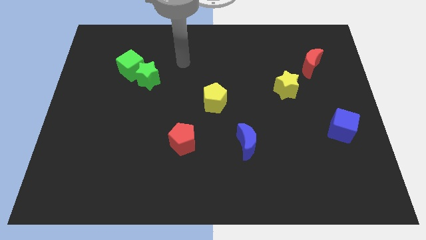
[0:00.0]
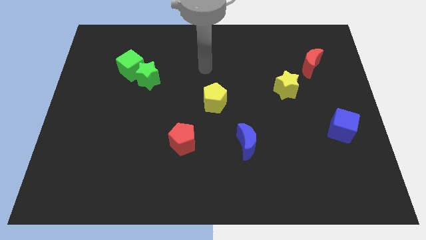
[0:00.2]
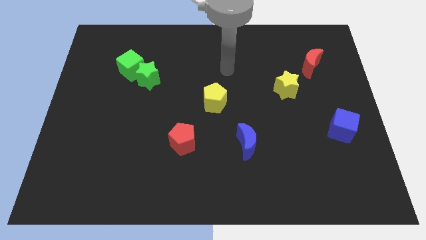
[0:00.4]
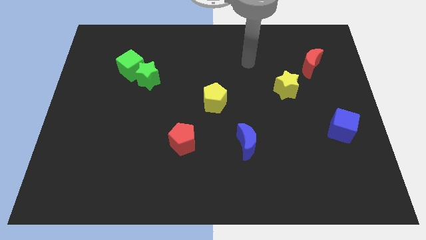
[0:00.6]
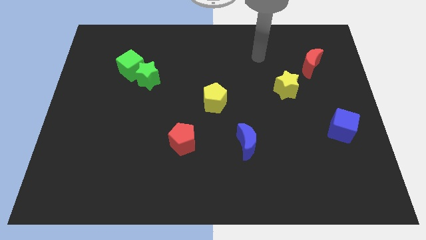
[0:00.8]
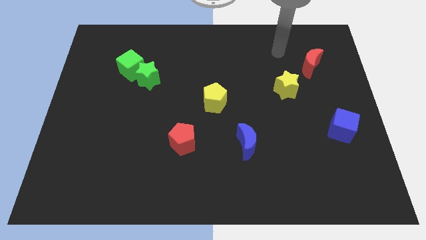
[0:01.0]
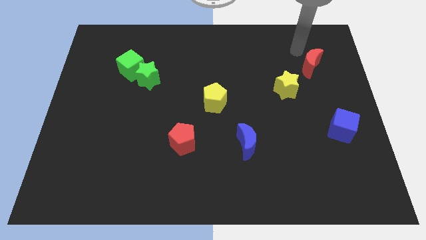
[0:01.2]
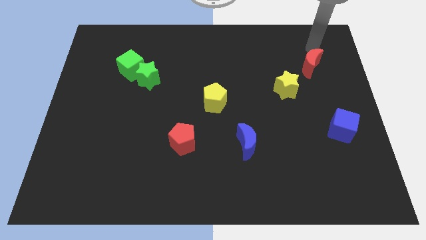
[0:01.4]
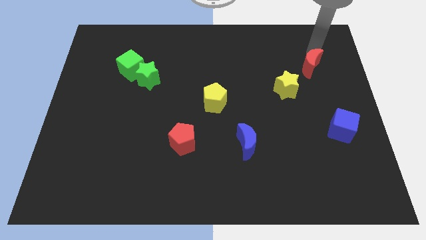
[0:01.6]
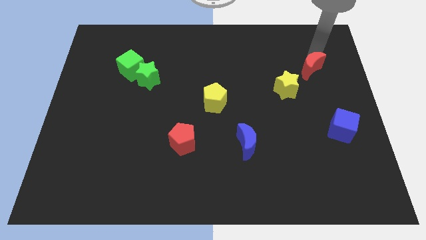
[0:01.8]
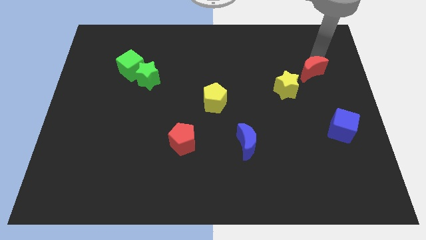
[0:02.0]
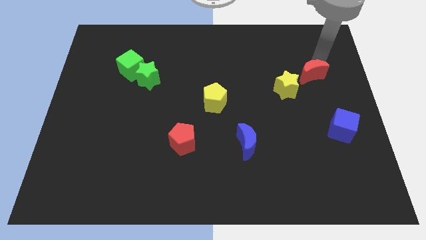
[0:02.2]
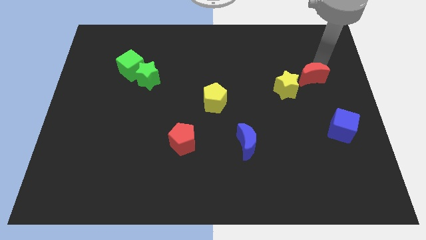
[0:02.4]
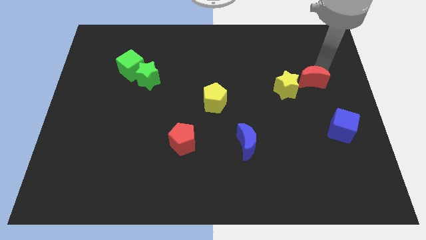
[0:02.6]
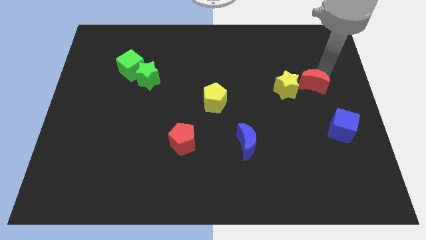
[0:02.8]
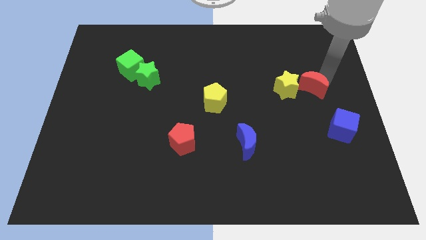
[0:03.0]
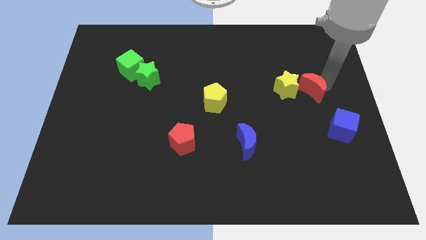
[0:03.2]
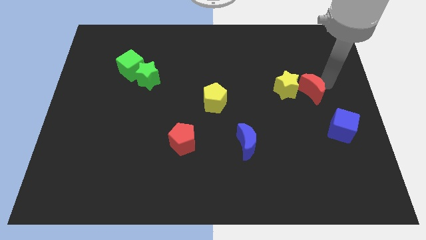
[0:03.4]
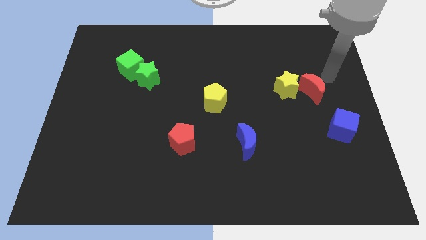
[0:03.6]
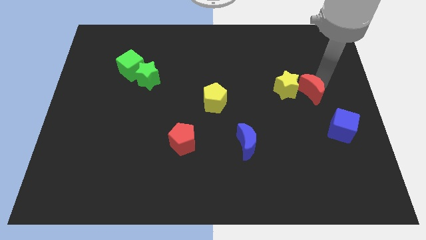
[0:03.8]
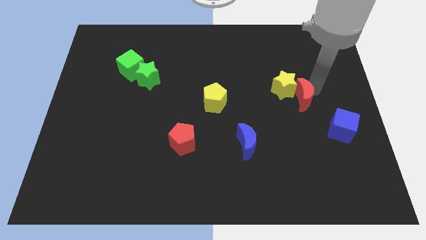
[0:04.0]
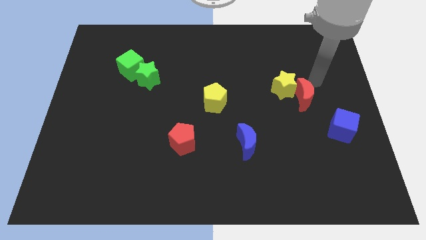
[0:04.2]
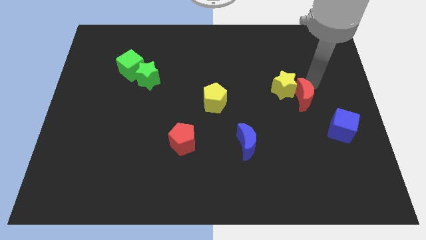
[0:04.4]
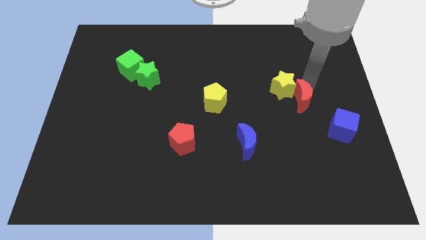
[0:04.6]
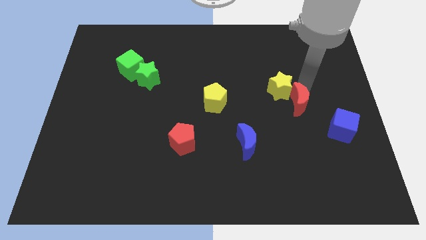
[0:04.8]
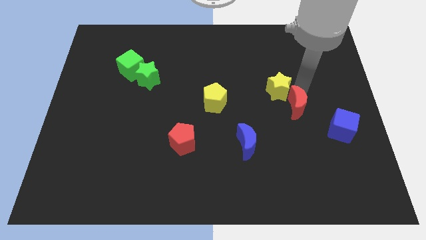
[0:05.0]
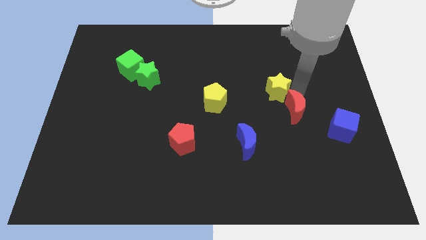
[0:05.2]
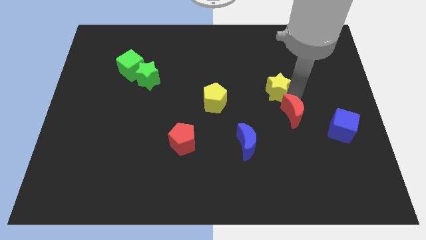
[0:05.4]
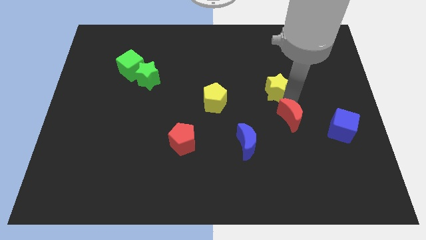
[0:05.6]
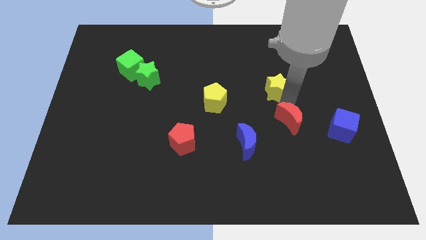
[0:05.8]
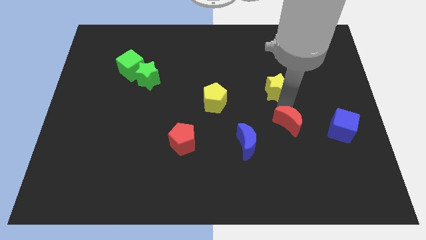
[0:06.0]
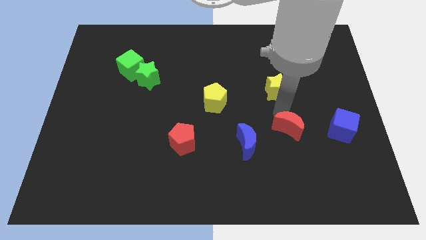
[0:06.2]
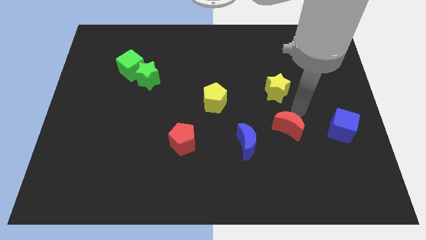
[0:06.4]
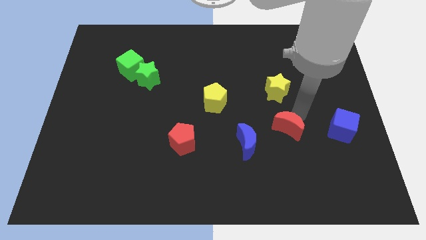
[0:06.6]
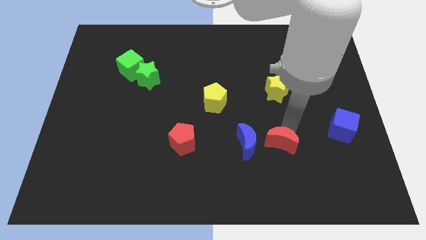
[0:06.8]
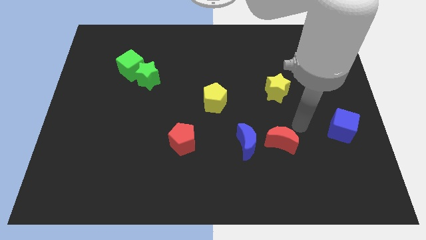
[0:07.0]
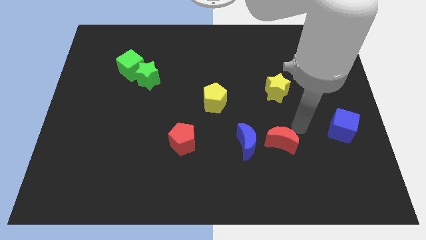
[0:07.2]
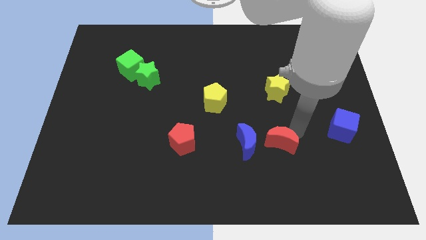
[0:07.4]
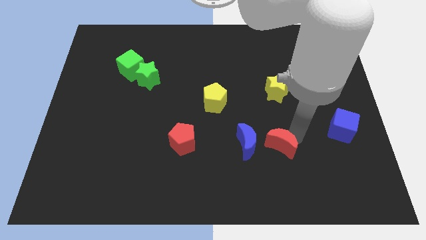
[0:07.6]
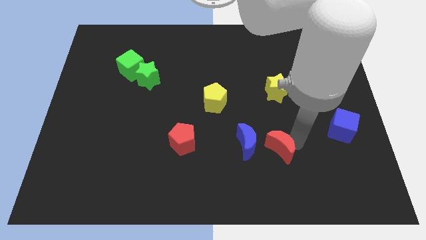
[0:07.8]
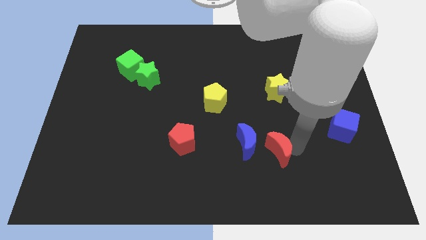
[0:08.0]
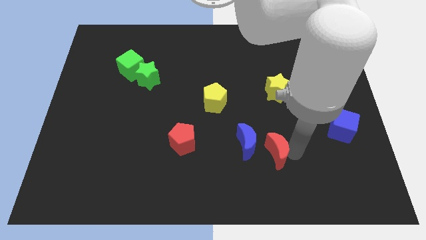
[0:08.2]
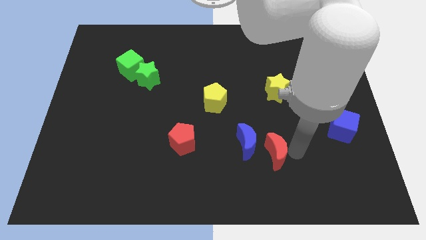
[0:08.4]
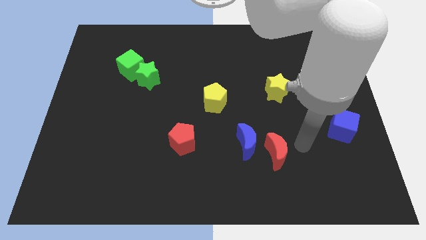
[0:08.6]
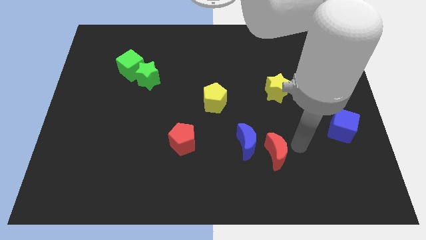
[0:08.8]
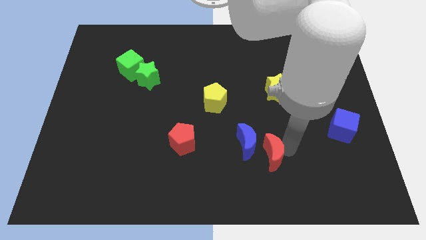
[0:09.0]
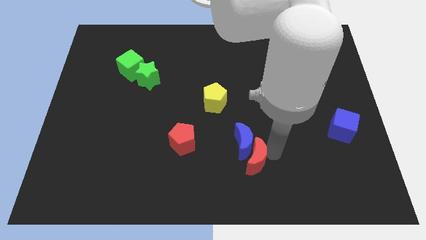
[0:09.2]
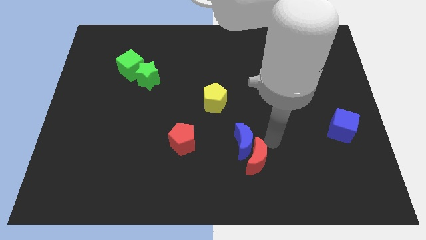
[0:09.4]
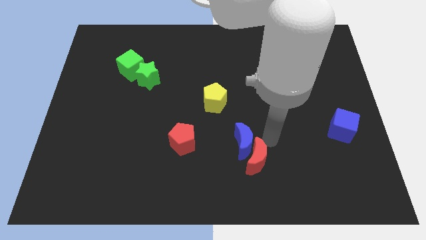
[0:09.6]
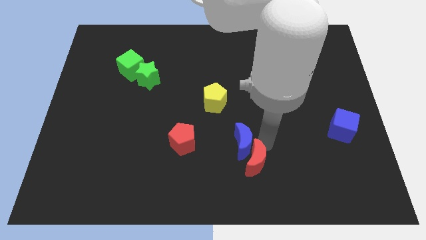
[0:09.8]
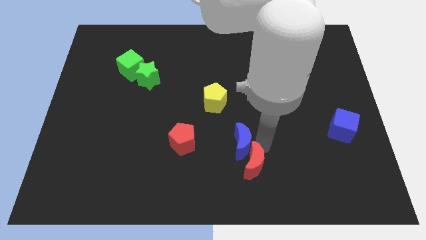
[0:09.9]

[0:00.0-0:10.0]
push the red moon to the bottom side

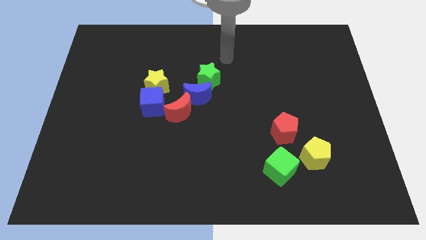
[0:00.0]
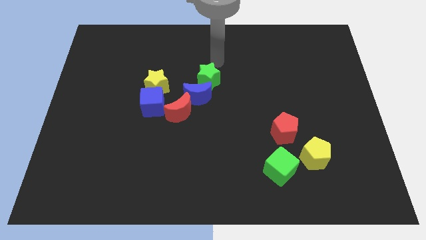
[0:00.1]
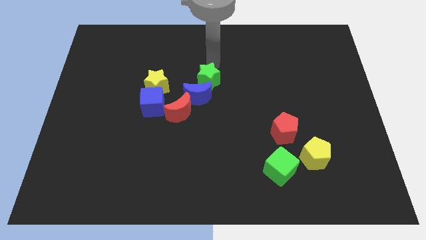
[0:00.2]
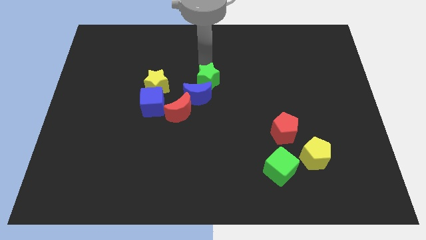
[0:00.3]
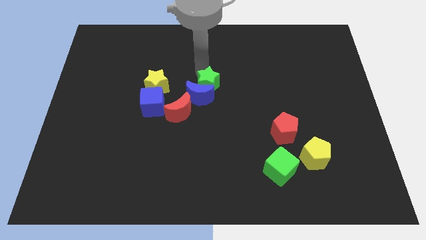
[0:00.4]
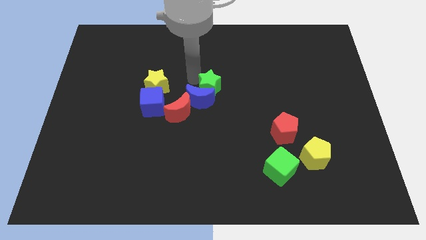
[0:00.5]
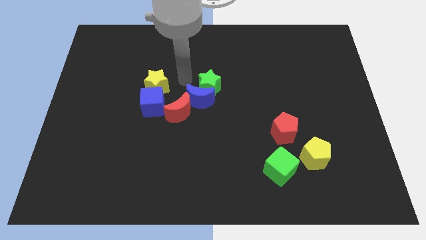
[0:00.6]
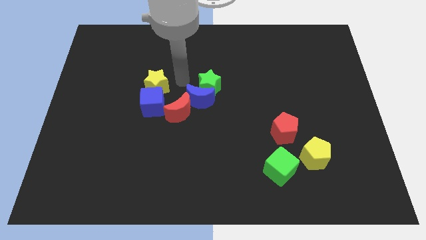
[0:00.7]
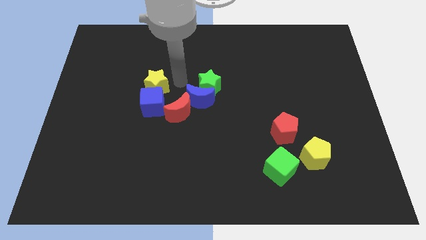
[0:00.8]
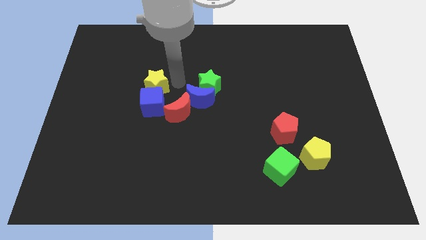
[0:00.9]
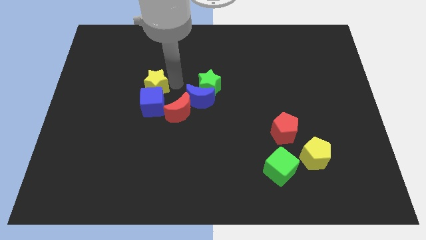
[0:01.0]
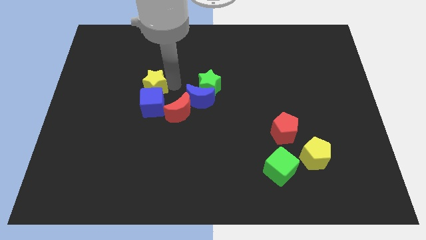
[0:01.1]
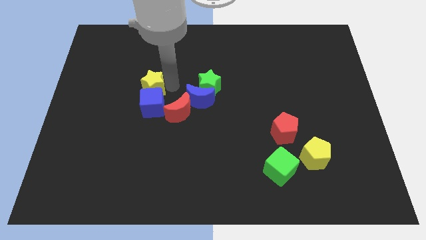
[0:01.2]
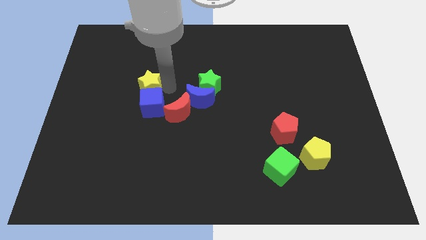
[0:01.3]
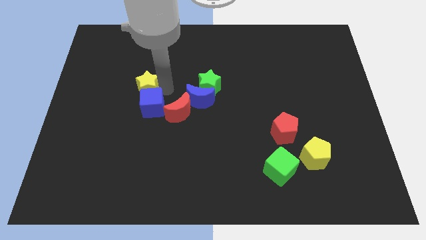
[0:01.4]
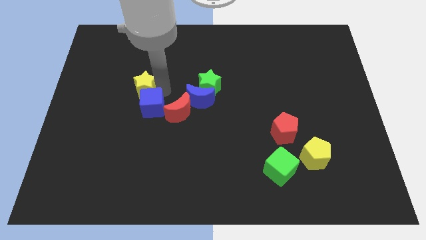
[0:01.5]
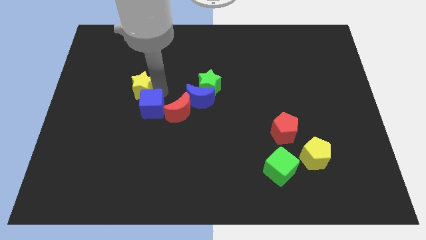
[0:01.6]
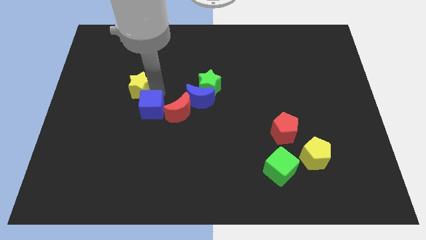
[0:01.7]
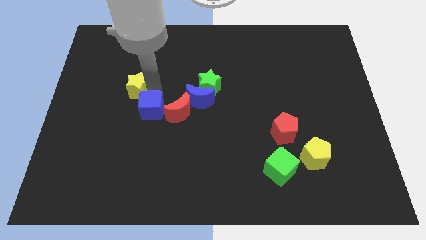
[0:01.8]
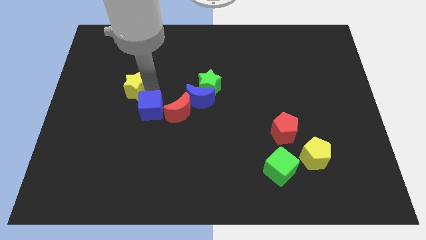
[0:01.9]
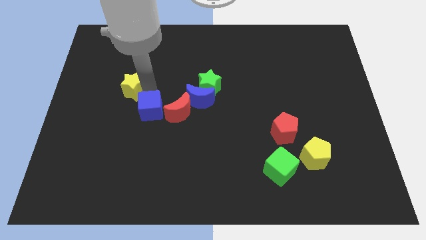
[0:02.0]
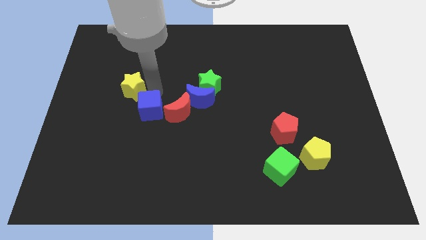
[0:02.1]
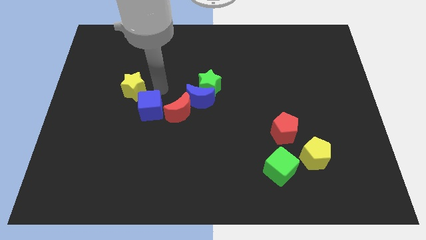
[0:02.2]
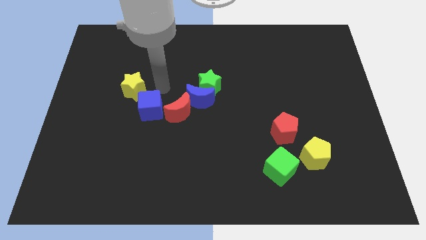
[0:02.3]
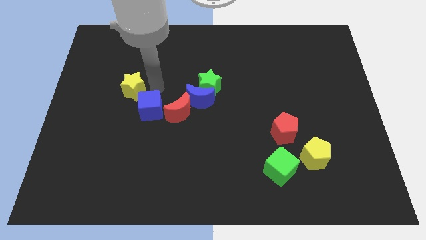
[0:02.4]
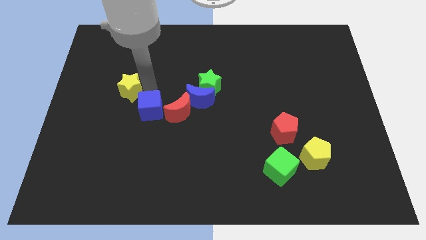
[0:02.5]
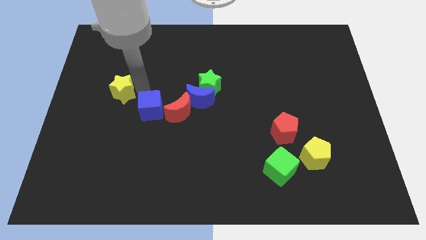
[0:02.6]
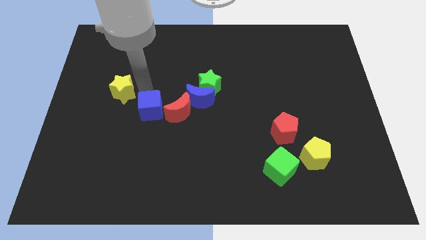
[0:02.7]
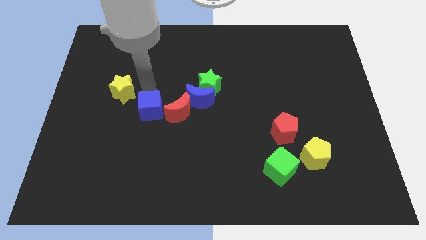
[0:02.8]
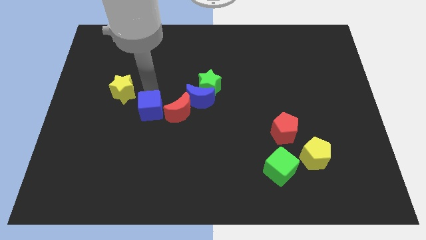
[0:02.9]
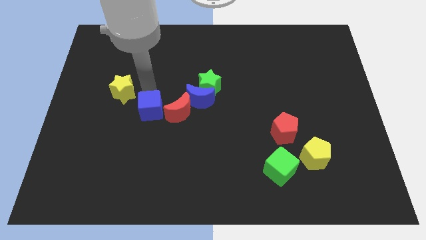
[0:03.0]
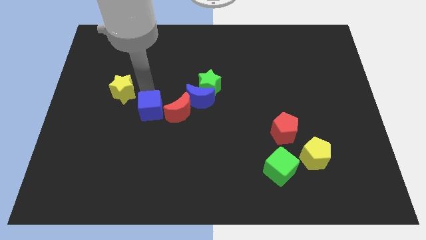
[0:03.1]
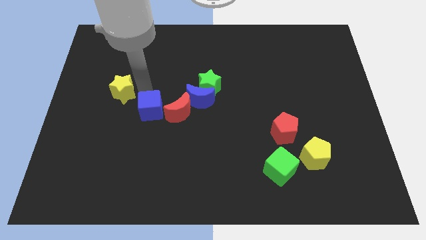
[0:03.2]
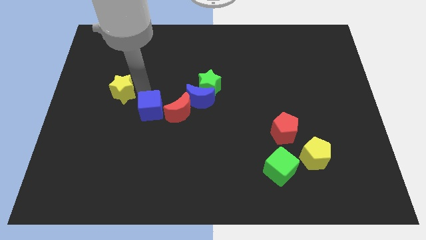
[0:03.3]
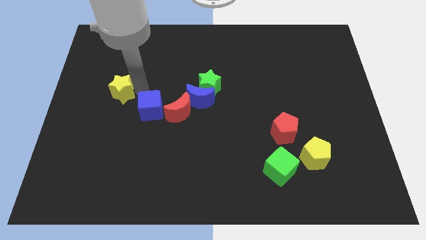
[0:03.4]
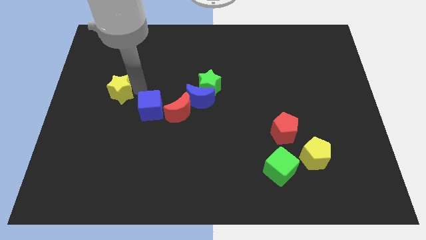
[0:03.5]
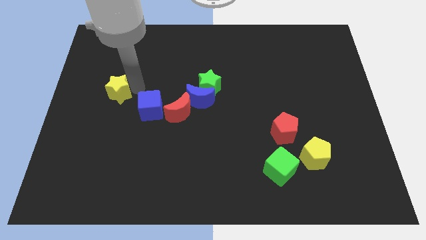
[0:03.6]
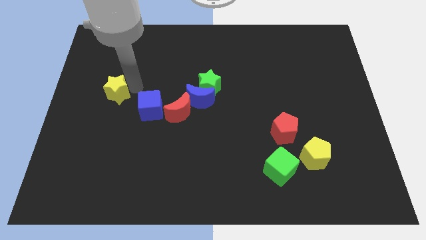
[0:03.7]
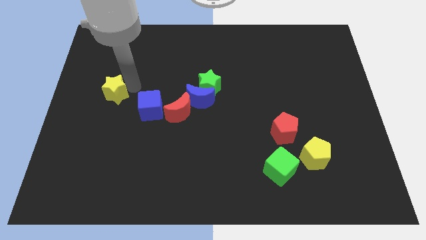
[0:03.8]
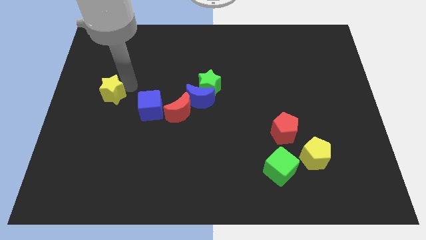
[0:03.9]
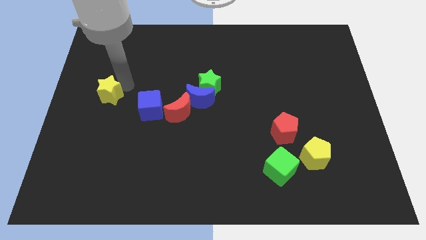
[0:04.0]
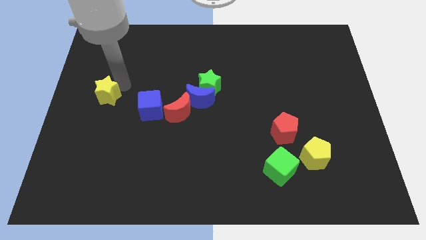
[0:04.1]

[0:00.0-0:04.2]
push the yellow star to the center left
